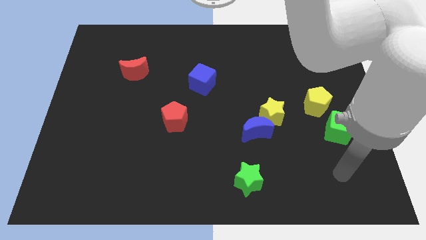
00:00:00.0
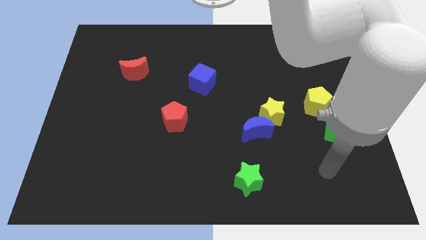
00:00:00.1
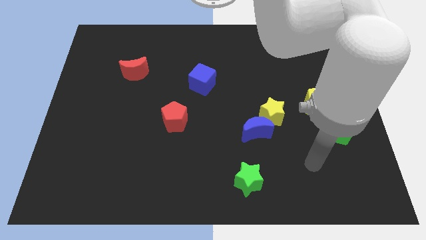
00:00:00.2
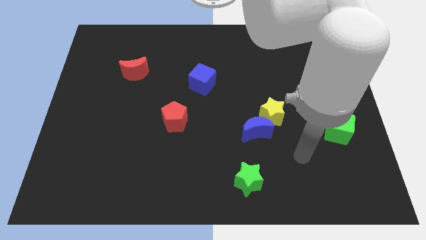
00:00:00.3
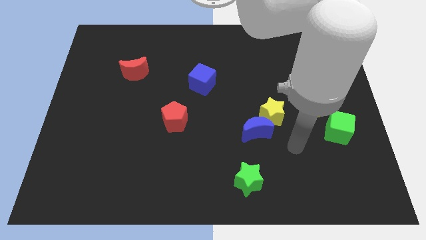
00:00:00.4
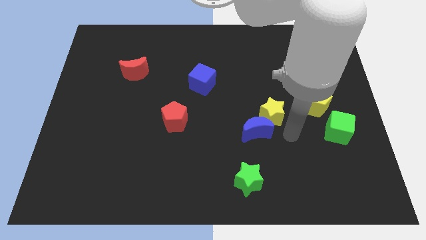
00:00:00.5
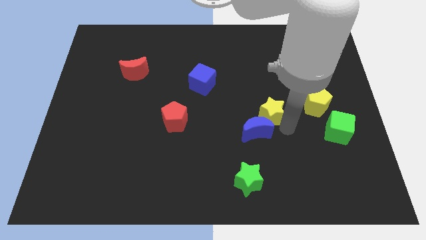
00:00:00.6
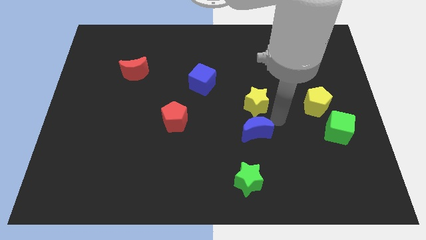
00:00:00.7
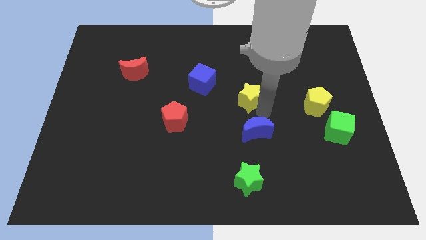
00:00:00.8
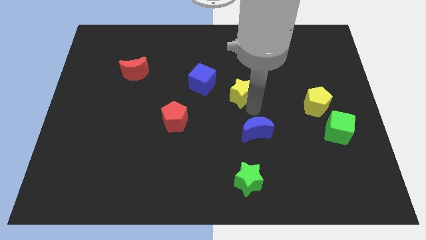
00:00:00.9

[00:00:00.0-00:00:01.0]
separate the blue moon from the yellow star

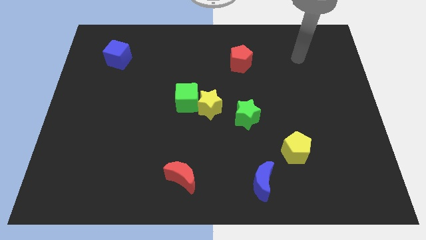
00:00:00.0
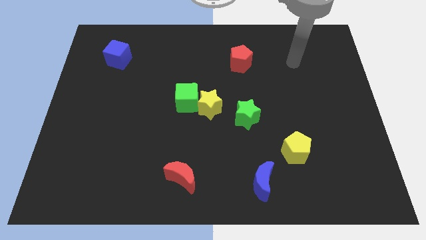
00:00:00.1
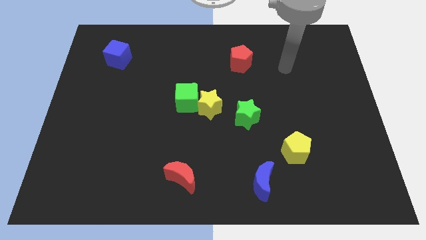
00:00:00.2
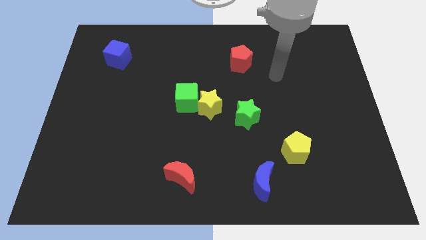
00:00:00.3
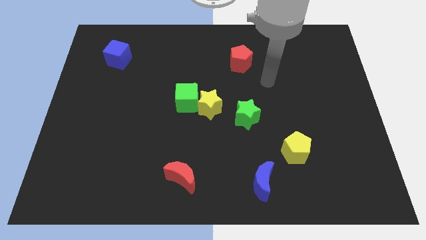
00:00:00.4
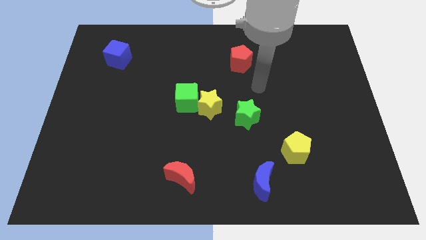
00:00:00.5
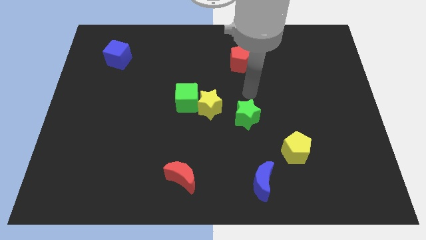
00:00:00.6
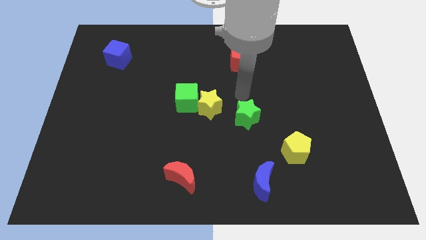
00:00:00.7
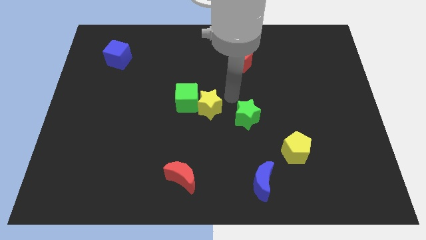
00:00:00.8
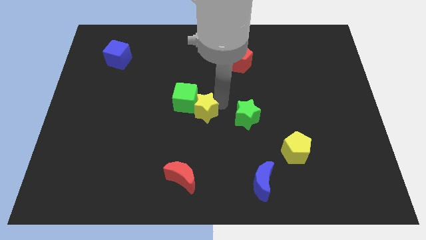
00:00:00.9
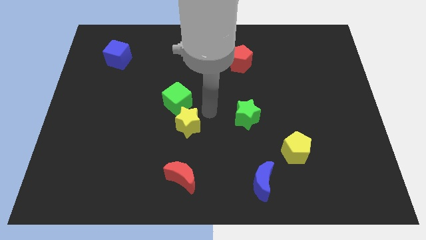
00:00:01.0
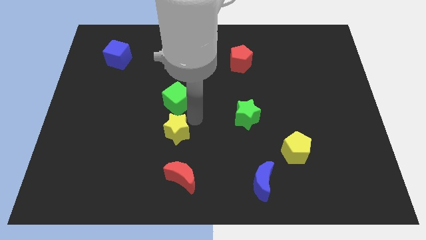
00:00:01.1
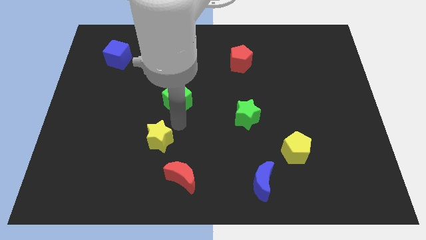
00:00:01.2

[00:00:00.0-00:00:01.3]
pull the green cube apart from the yellow star

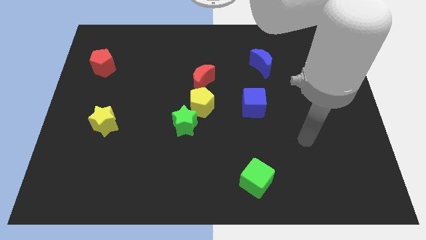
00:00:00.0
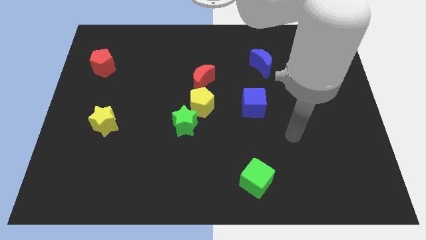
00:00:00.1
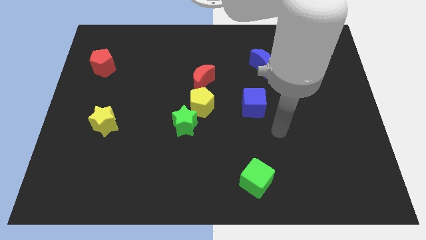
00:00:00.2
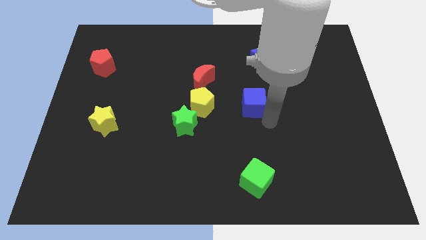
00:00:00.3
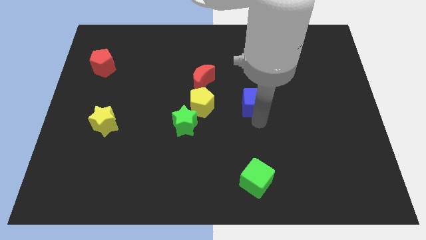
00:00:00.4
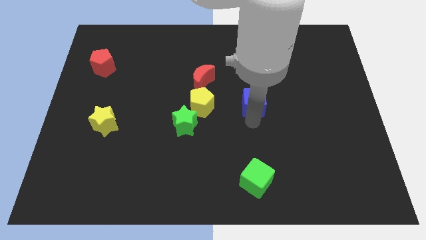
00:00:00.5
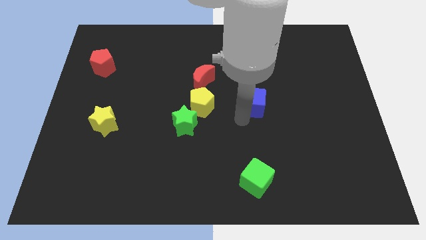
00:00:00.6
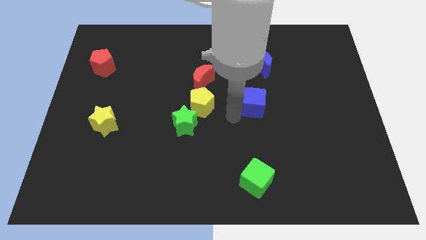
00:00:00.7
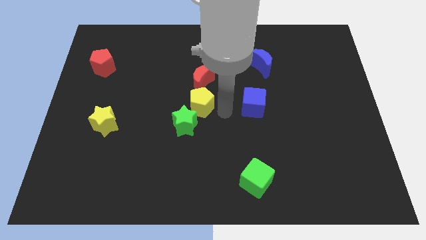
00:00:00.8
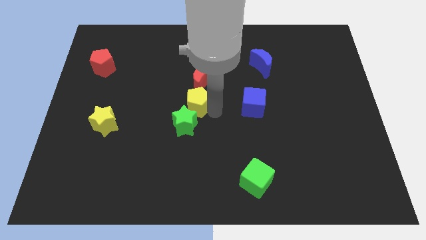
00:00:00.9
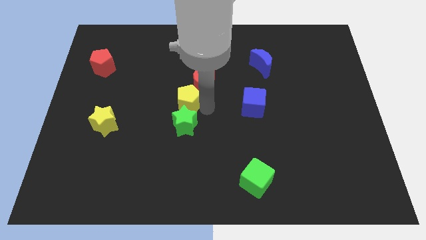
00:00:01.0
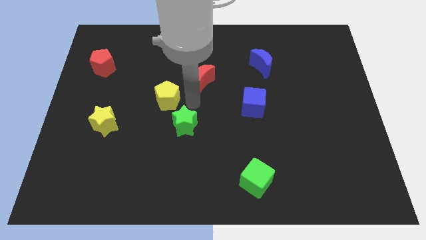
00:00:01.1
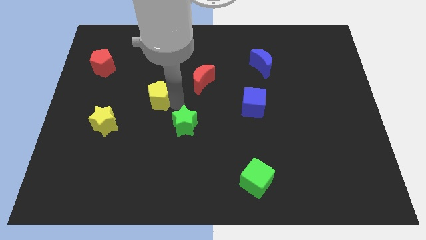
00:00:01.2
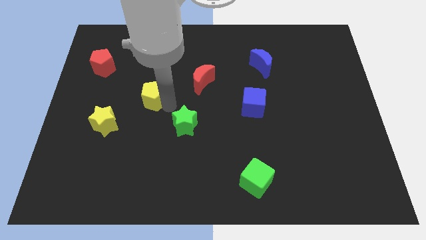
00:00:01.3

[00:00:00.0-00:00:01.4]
separate the green star from the yellow pentagon

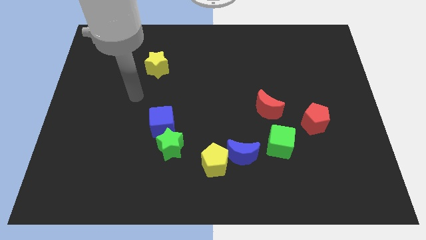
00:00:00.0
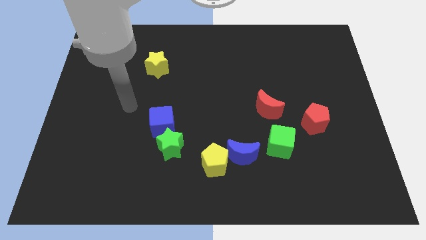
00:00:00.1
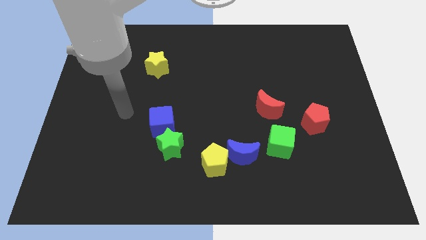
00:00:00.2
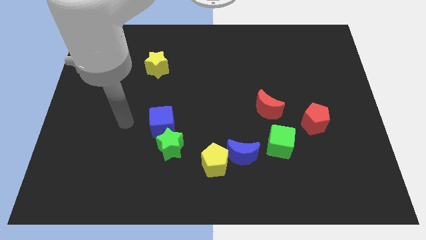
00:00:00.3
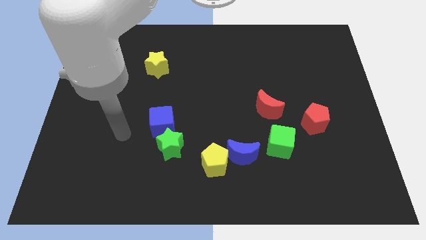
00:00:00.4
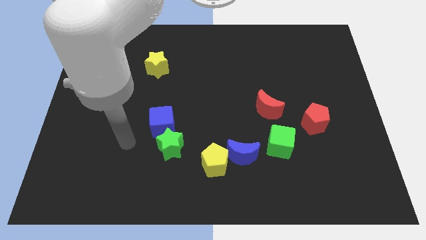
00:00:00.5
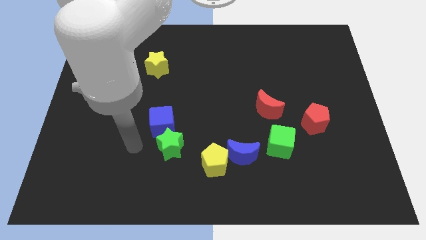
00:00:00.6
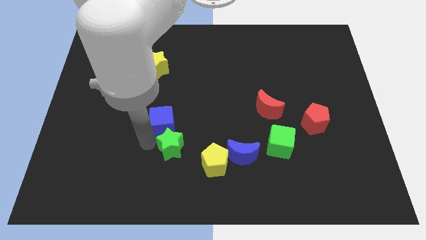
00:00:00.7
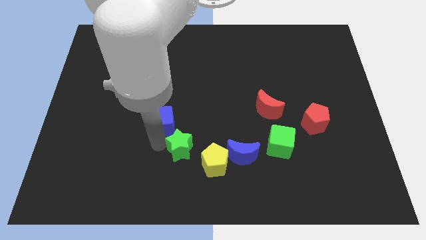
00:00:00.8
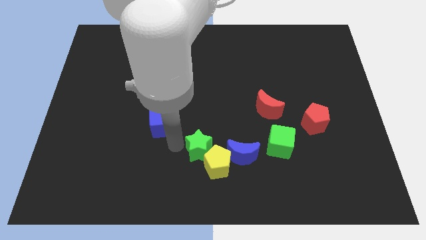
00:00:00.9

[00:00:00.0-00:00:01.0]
separate the blue cube from the green star

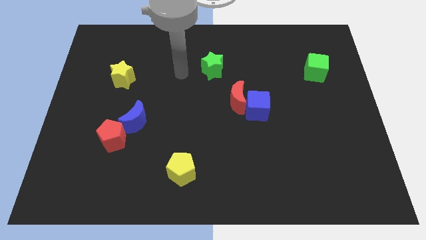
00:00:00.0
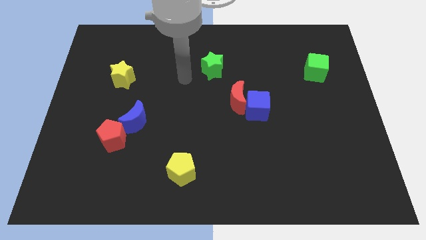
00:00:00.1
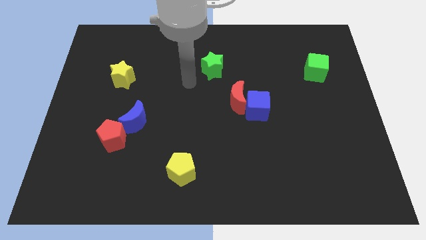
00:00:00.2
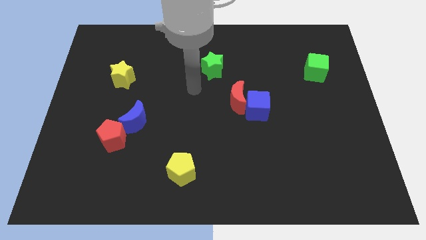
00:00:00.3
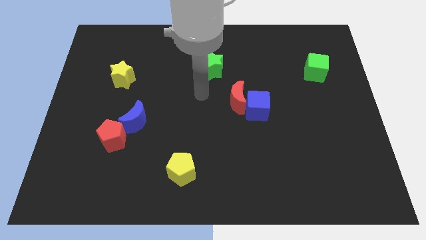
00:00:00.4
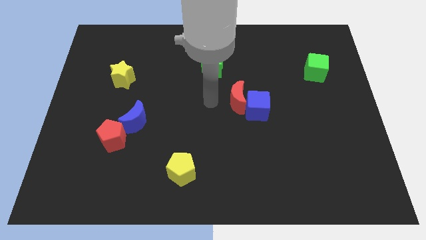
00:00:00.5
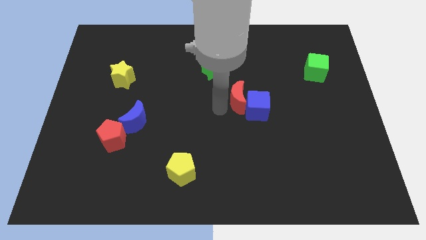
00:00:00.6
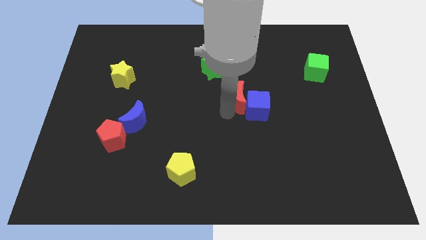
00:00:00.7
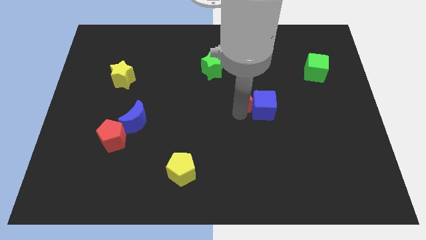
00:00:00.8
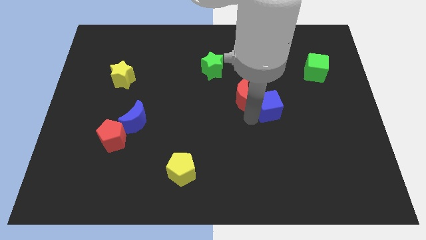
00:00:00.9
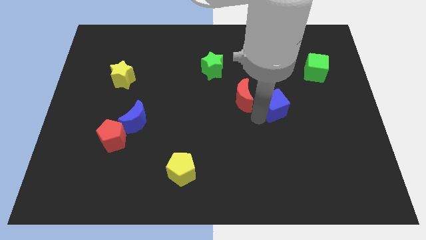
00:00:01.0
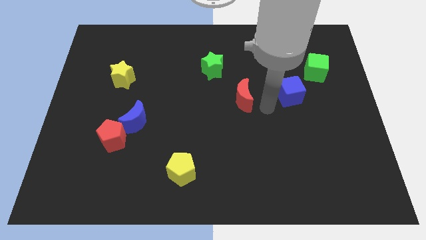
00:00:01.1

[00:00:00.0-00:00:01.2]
pull the red moon apart from the blue cube

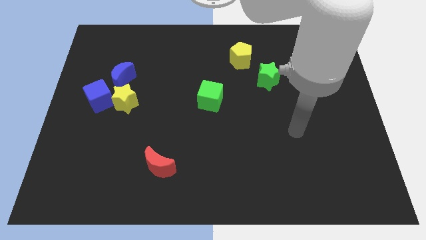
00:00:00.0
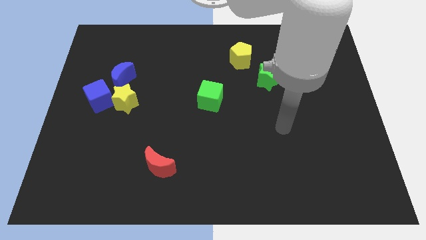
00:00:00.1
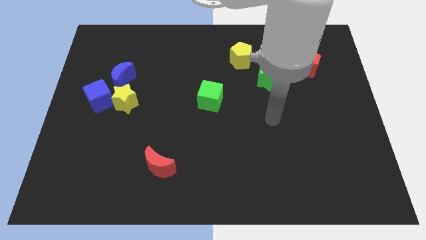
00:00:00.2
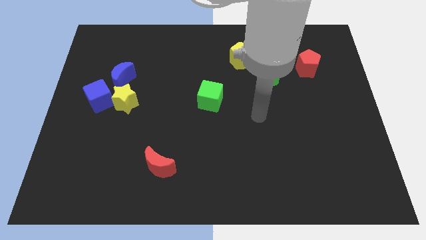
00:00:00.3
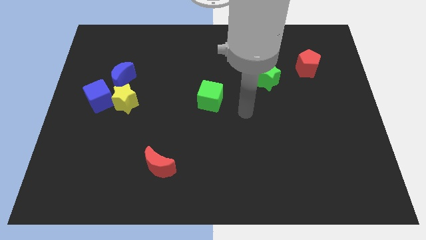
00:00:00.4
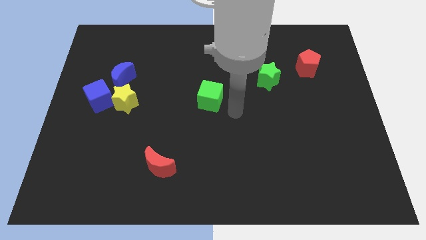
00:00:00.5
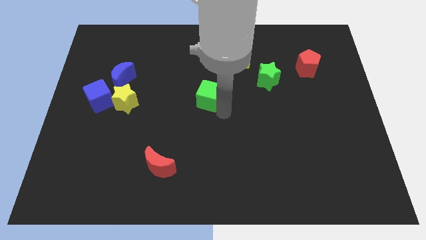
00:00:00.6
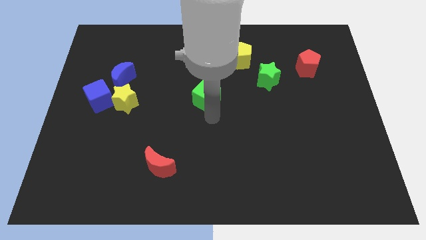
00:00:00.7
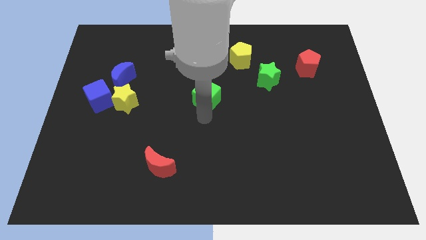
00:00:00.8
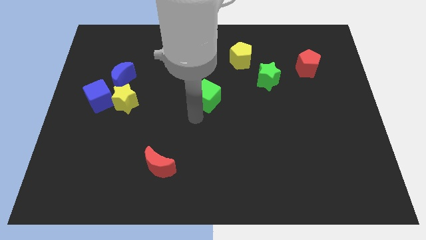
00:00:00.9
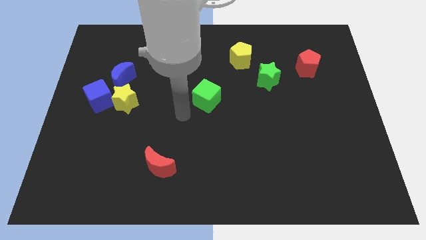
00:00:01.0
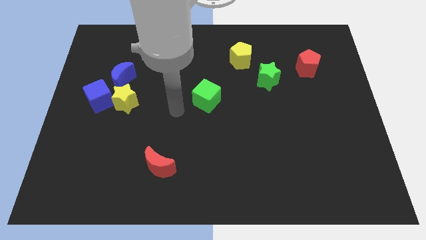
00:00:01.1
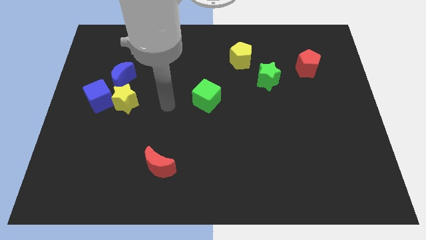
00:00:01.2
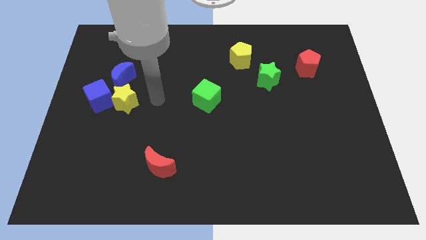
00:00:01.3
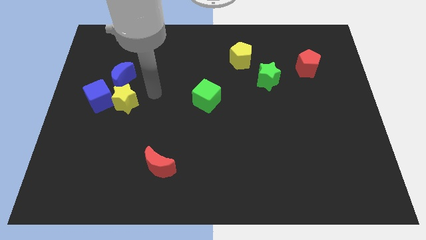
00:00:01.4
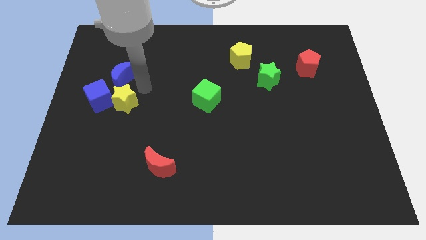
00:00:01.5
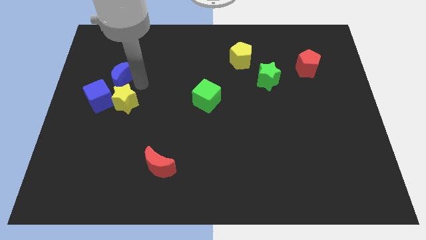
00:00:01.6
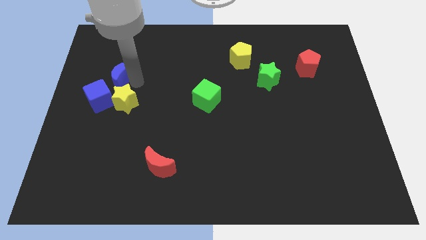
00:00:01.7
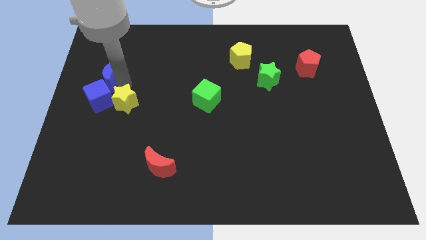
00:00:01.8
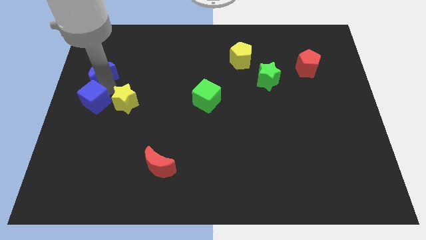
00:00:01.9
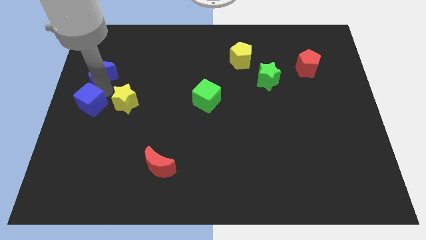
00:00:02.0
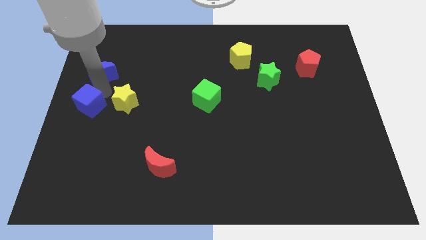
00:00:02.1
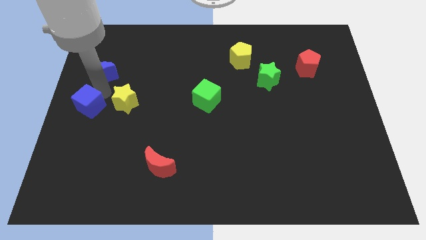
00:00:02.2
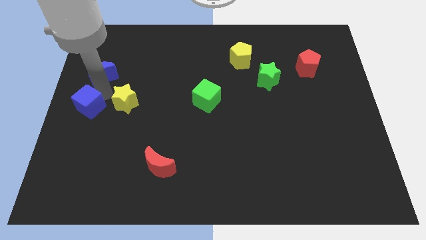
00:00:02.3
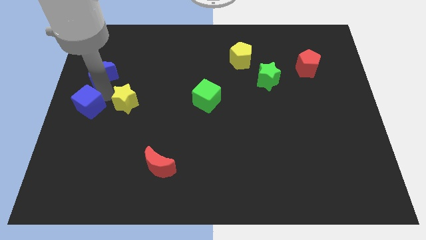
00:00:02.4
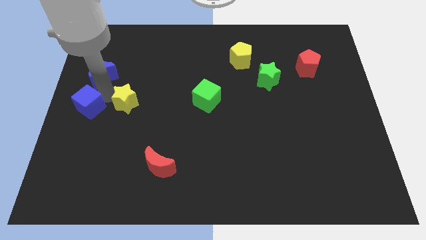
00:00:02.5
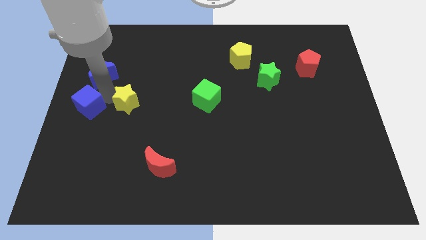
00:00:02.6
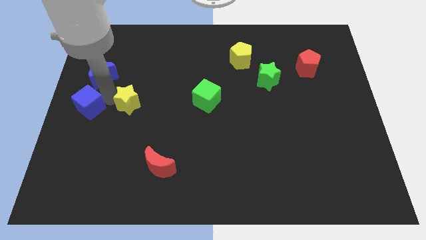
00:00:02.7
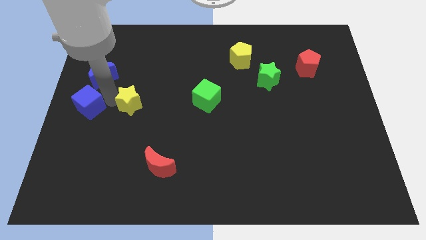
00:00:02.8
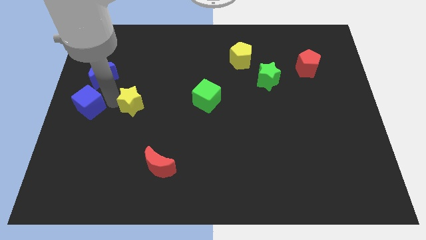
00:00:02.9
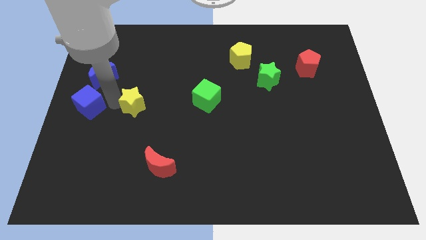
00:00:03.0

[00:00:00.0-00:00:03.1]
separate the yellow star from the blue cube and blue moon

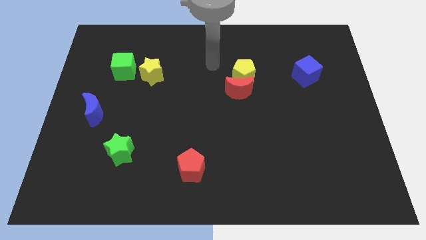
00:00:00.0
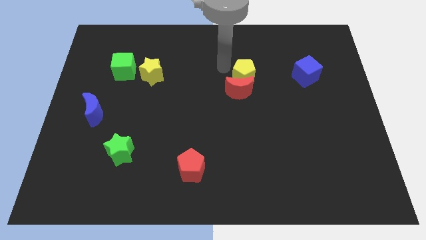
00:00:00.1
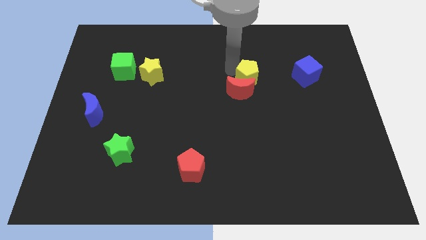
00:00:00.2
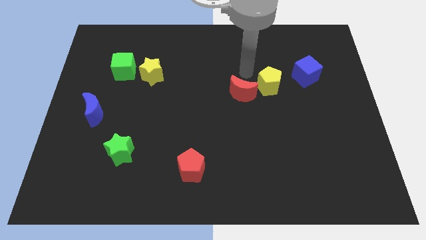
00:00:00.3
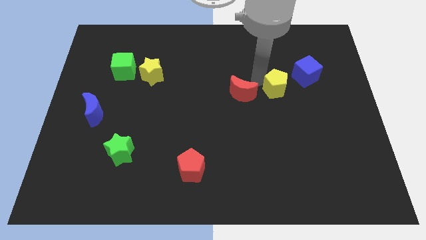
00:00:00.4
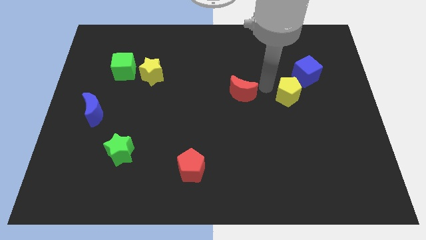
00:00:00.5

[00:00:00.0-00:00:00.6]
move the red moon away from the yellow pentagon
